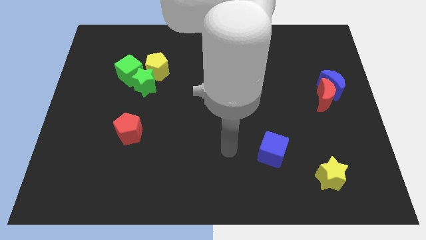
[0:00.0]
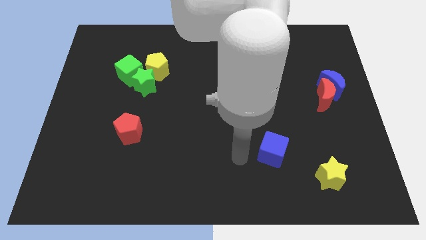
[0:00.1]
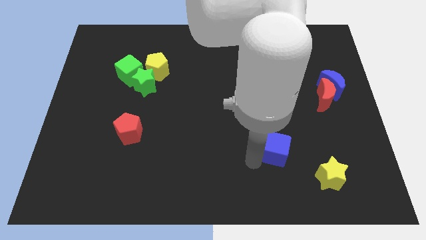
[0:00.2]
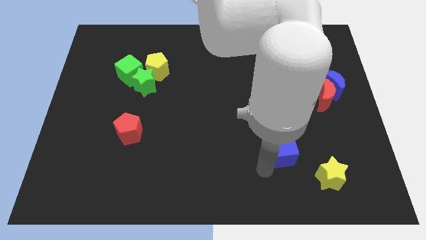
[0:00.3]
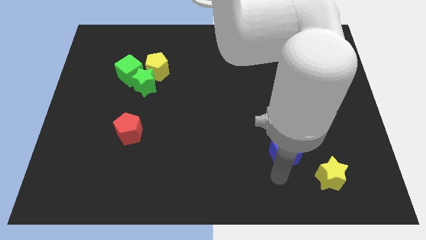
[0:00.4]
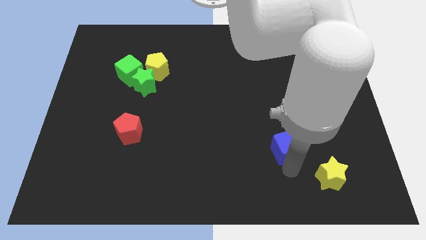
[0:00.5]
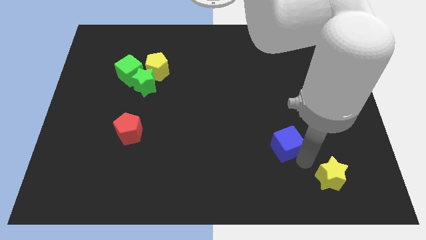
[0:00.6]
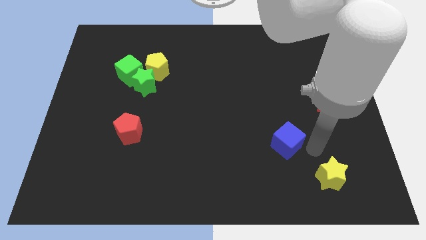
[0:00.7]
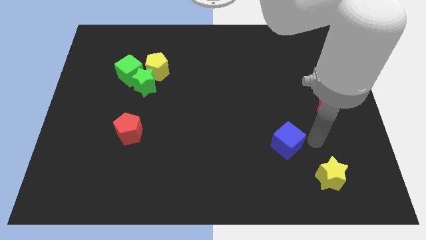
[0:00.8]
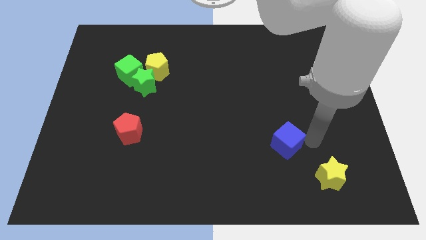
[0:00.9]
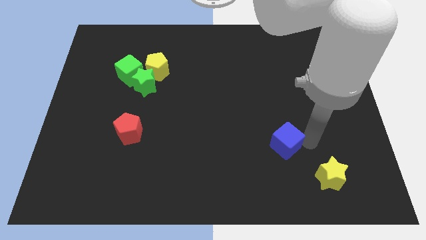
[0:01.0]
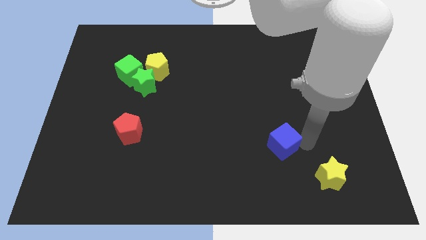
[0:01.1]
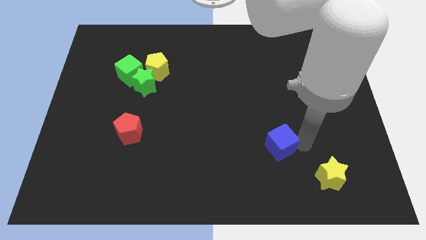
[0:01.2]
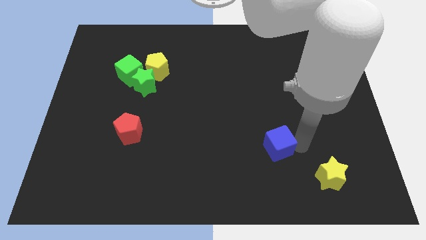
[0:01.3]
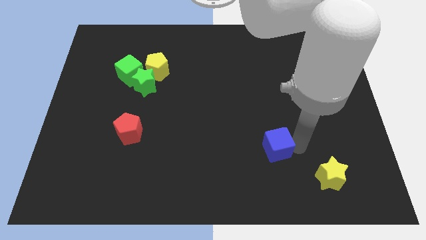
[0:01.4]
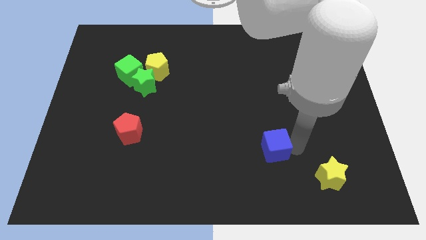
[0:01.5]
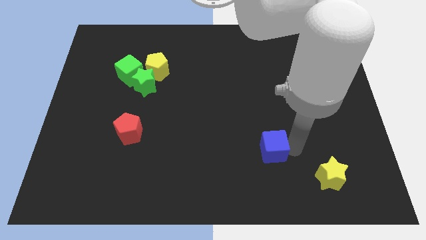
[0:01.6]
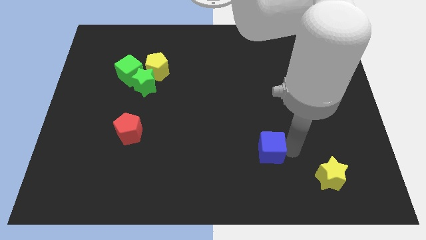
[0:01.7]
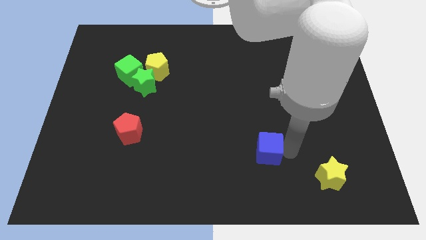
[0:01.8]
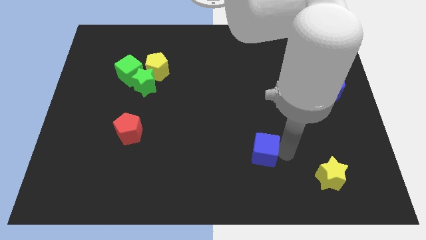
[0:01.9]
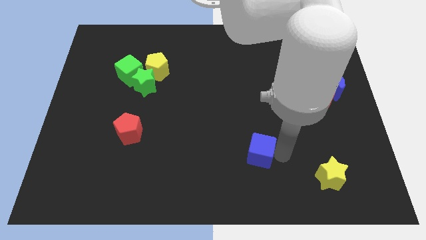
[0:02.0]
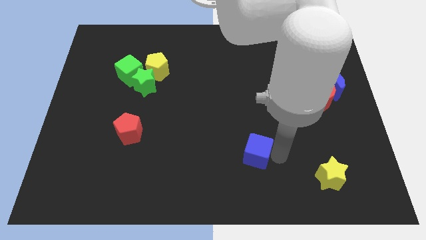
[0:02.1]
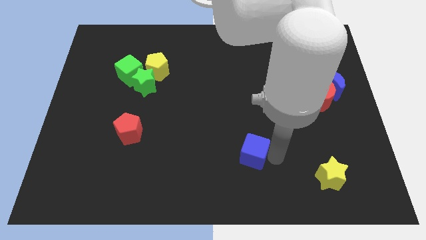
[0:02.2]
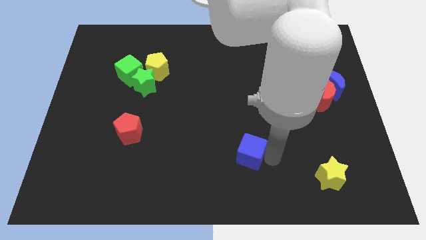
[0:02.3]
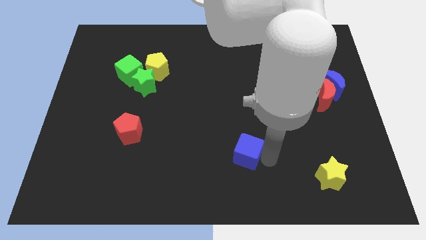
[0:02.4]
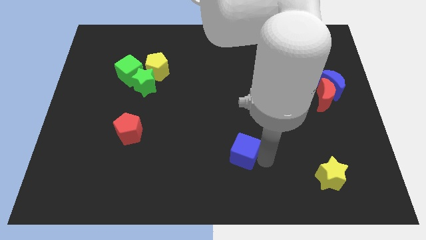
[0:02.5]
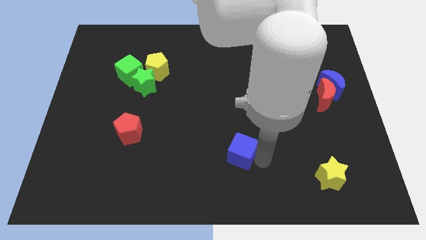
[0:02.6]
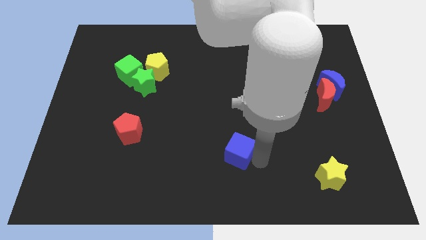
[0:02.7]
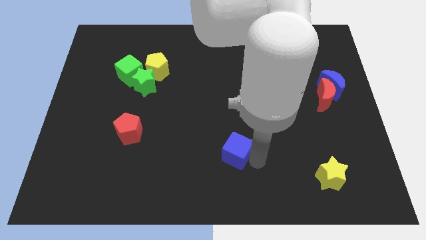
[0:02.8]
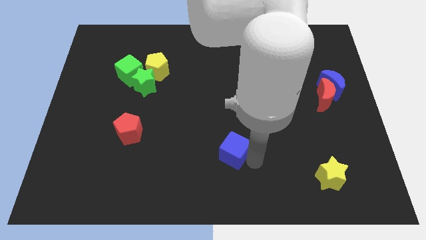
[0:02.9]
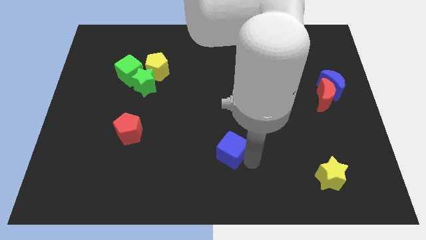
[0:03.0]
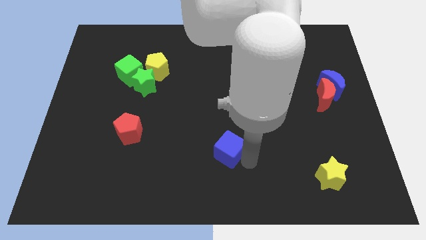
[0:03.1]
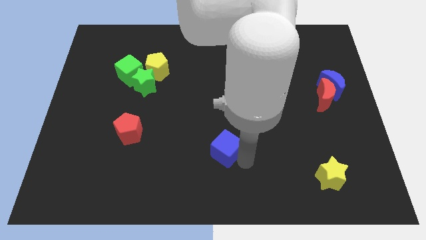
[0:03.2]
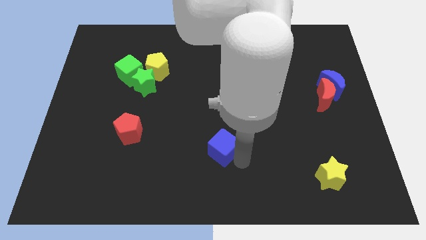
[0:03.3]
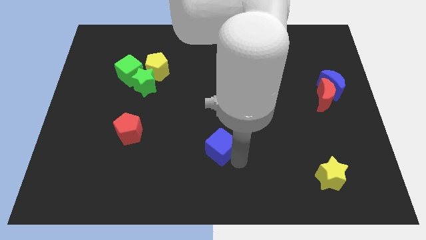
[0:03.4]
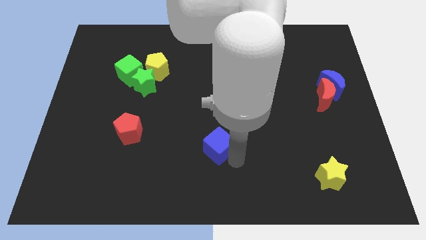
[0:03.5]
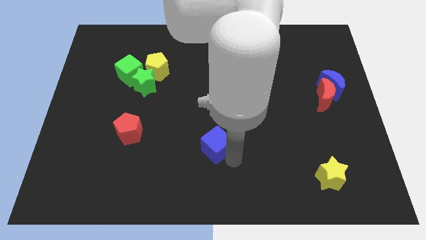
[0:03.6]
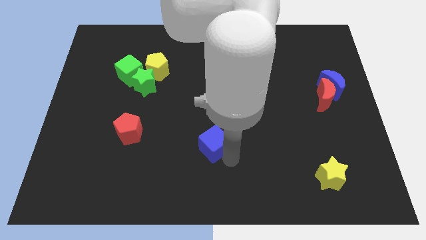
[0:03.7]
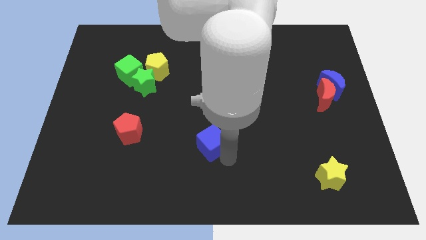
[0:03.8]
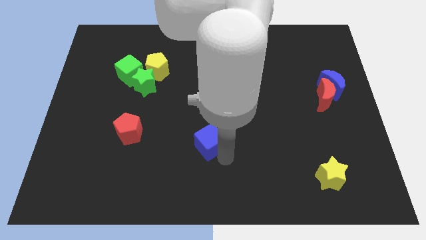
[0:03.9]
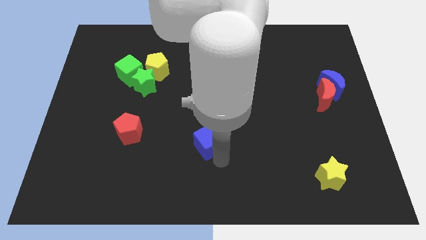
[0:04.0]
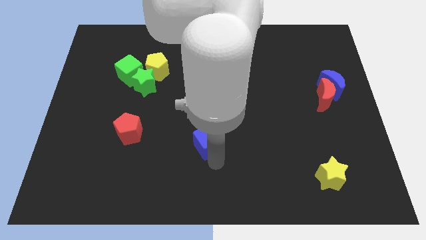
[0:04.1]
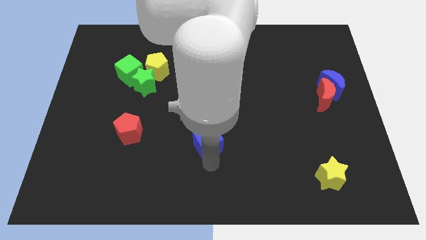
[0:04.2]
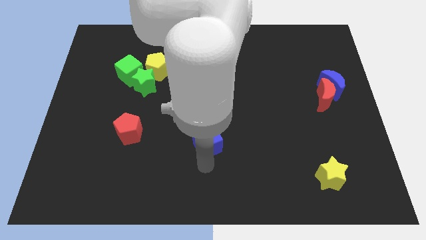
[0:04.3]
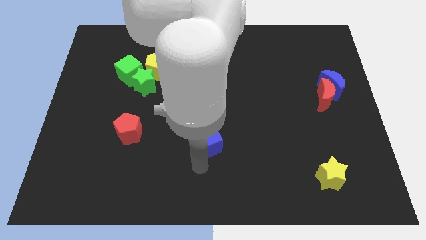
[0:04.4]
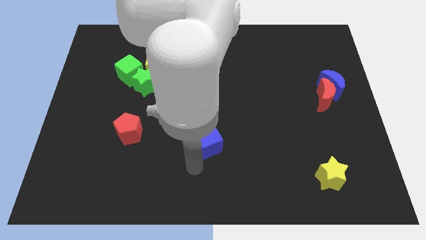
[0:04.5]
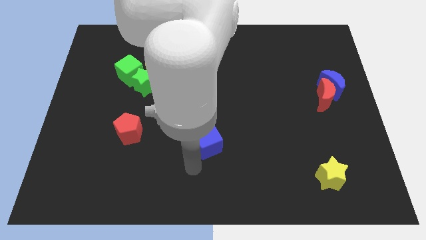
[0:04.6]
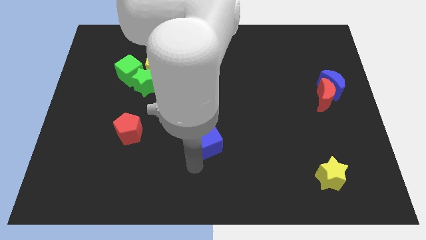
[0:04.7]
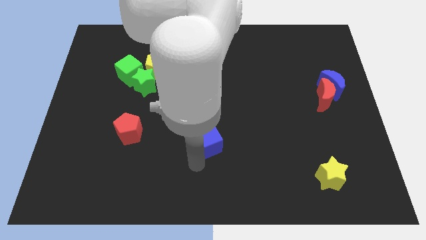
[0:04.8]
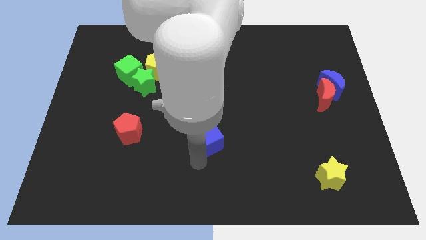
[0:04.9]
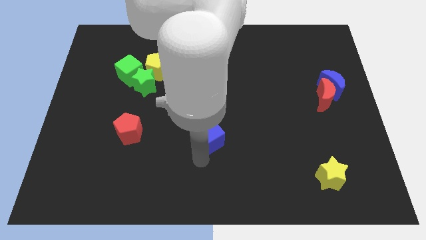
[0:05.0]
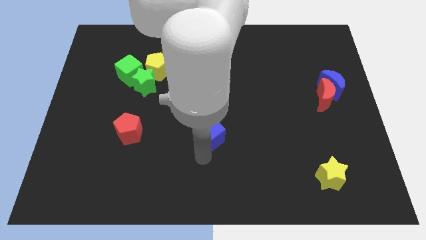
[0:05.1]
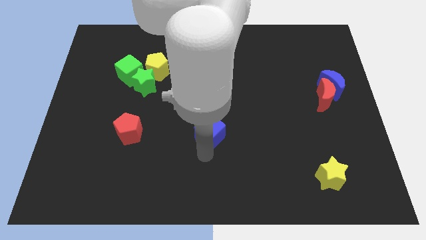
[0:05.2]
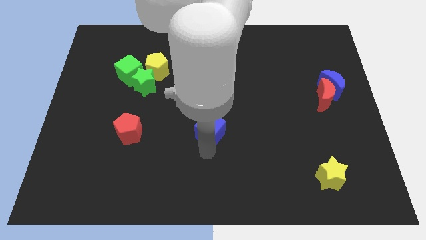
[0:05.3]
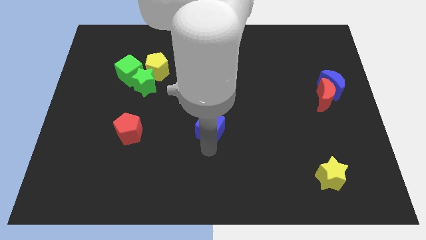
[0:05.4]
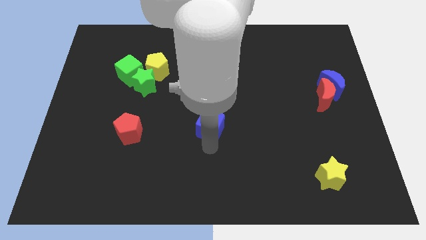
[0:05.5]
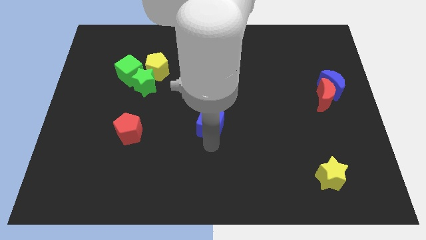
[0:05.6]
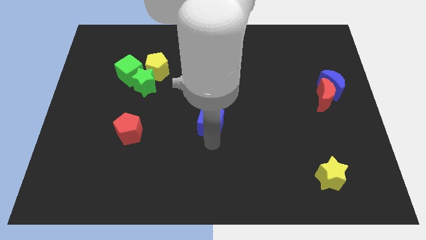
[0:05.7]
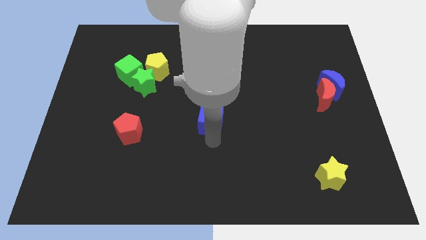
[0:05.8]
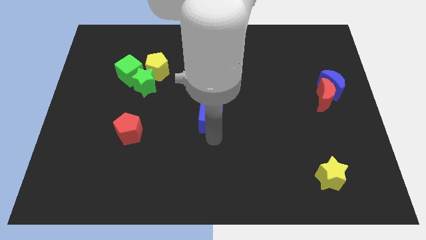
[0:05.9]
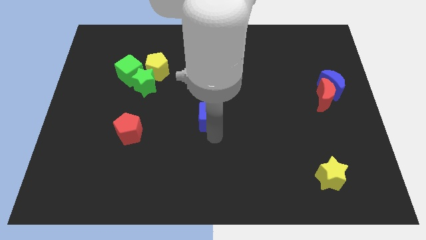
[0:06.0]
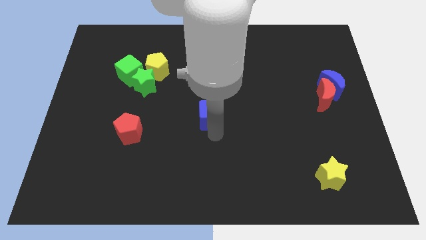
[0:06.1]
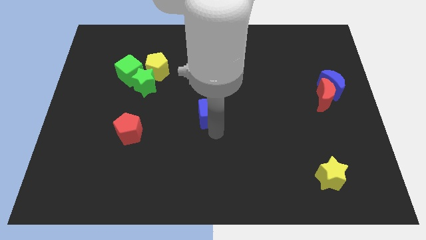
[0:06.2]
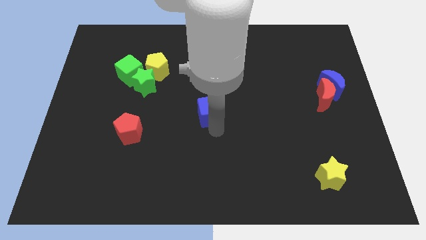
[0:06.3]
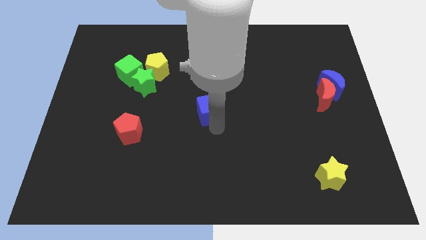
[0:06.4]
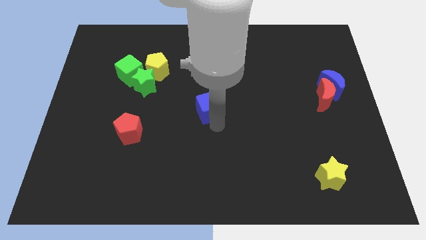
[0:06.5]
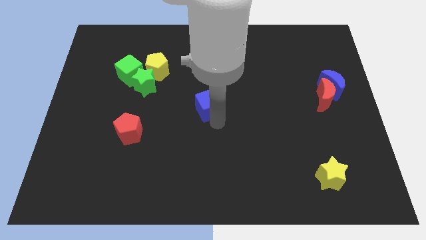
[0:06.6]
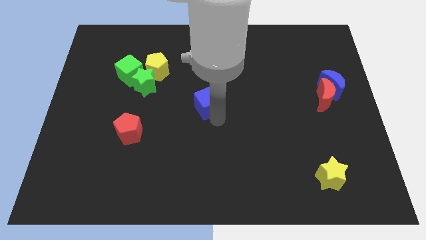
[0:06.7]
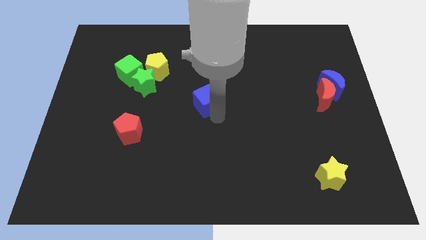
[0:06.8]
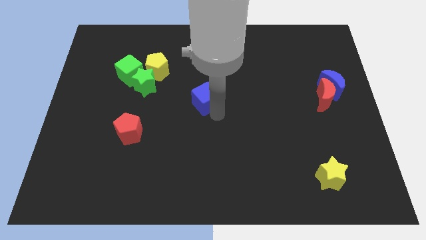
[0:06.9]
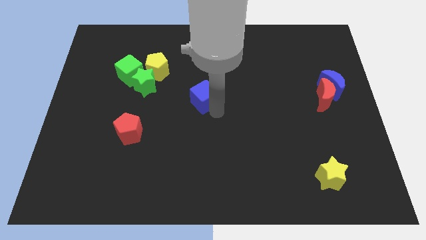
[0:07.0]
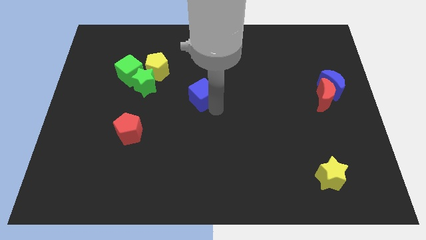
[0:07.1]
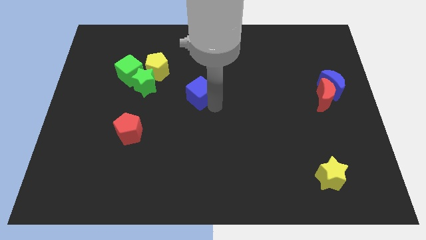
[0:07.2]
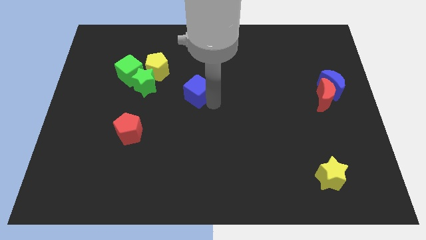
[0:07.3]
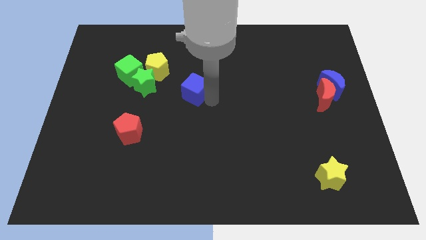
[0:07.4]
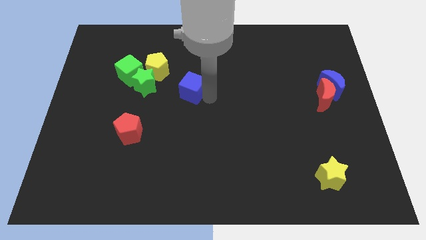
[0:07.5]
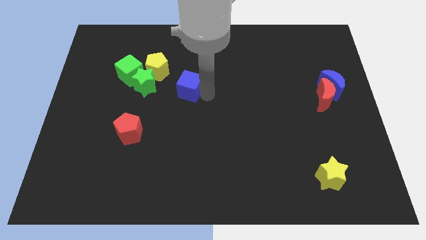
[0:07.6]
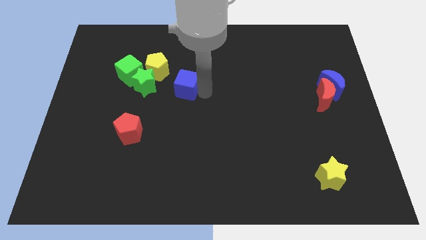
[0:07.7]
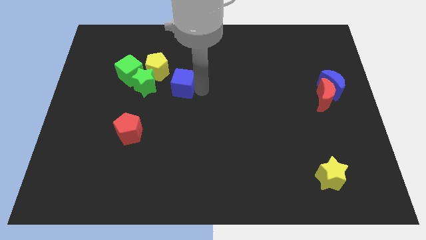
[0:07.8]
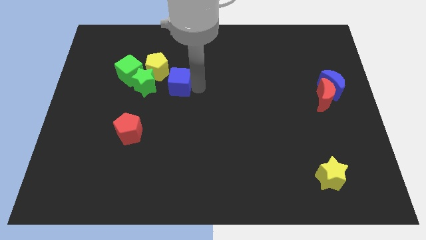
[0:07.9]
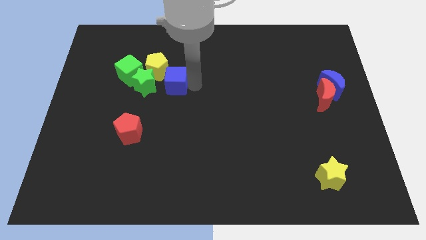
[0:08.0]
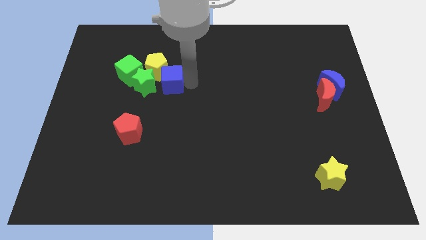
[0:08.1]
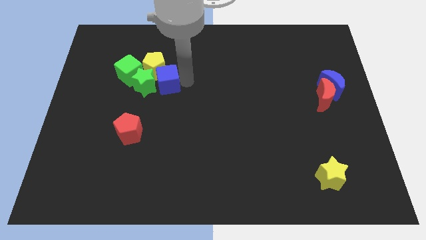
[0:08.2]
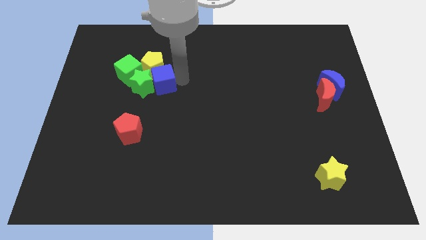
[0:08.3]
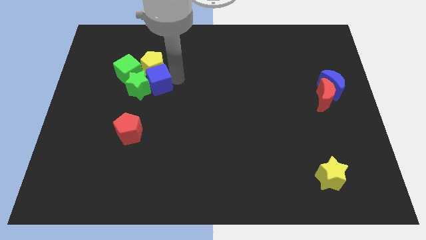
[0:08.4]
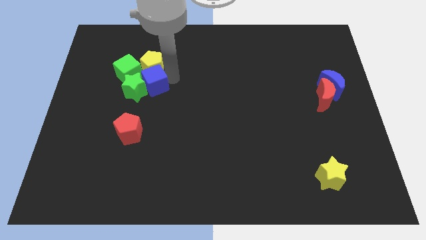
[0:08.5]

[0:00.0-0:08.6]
put the blue cube diagonally down and to the left of the yellow pentagon
